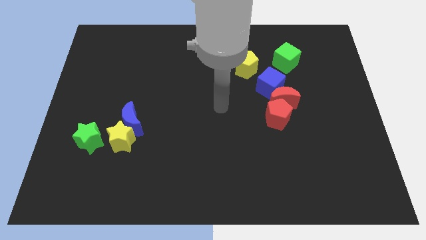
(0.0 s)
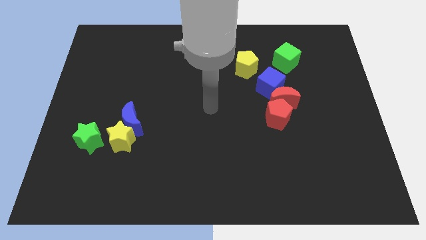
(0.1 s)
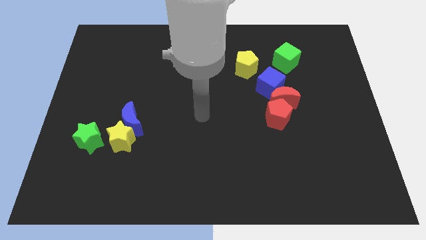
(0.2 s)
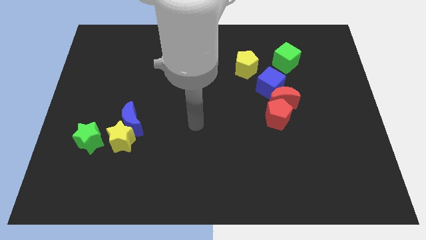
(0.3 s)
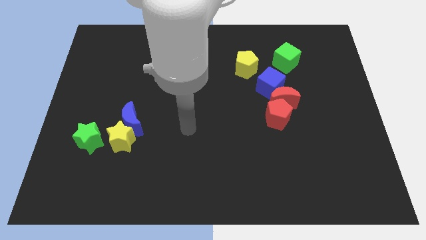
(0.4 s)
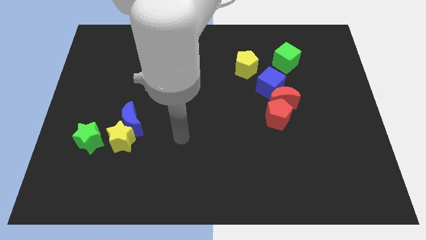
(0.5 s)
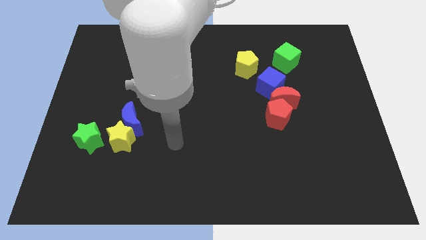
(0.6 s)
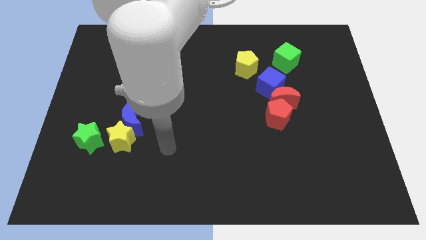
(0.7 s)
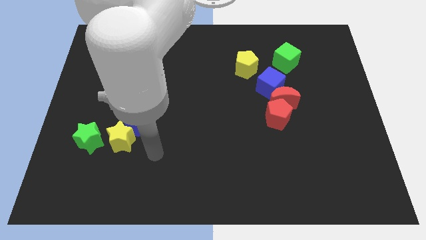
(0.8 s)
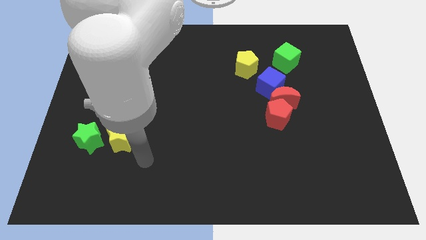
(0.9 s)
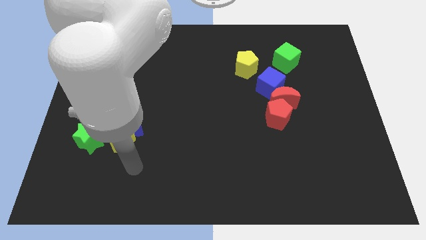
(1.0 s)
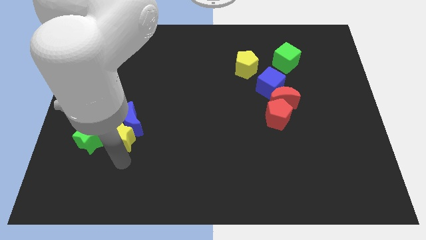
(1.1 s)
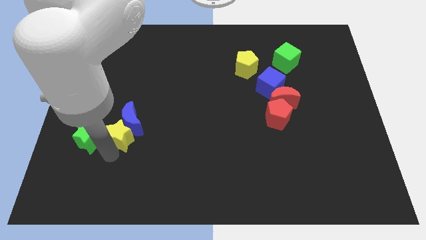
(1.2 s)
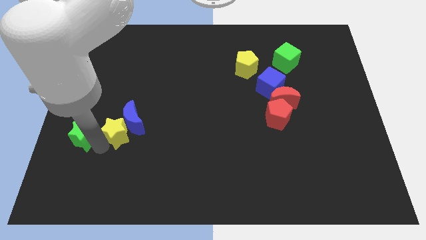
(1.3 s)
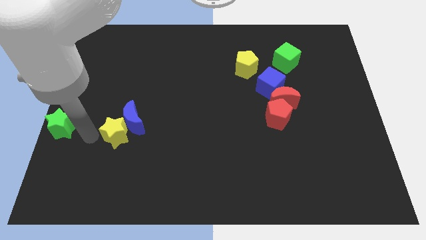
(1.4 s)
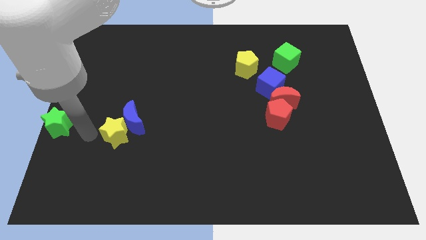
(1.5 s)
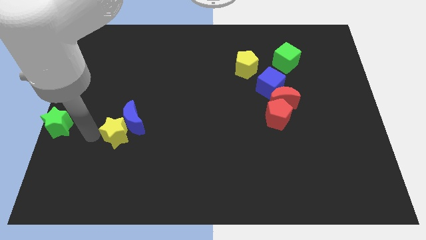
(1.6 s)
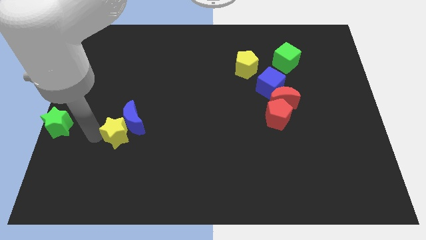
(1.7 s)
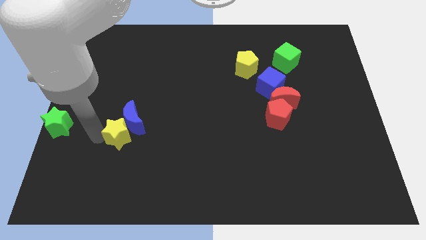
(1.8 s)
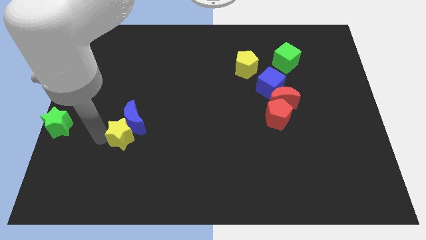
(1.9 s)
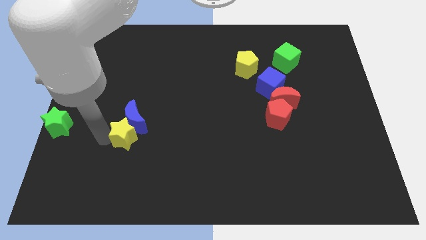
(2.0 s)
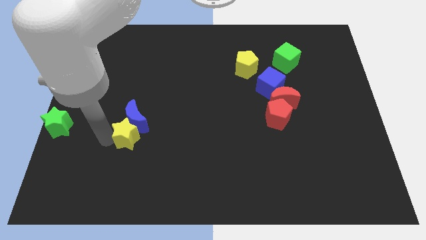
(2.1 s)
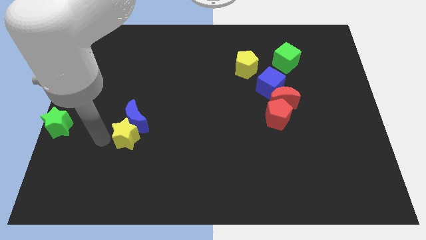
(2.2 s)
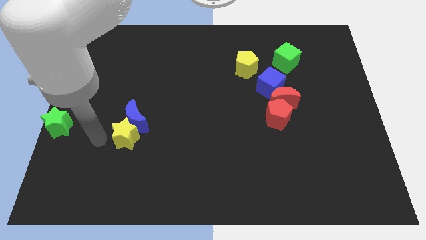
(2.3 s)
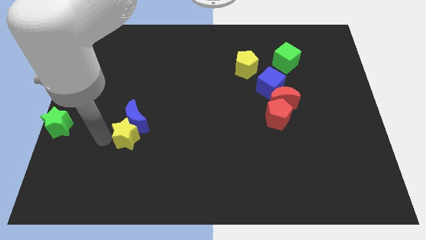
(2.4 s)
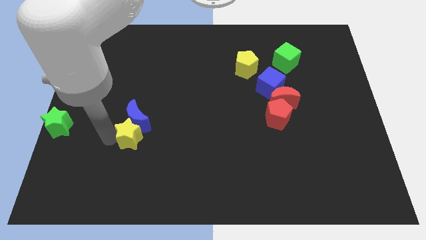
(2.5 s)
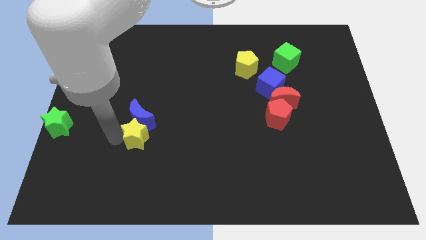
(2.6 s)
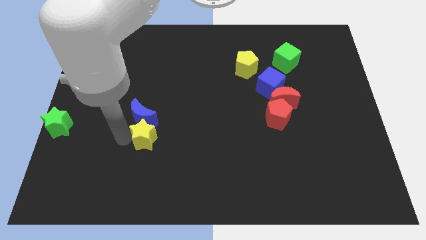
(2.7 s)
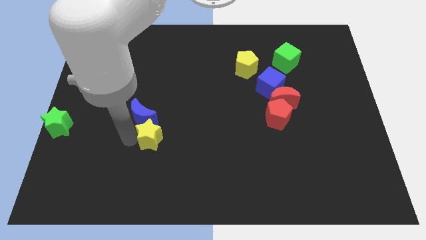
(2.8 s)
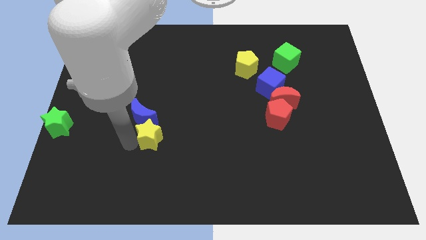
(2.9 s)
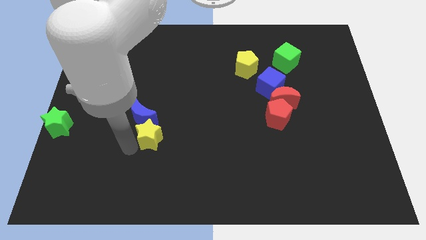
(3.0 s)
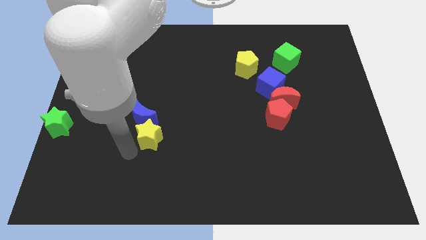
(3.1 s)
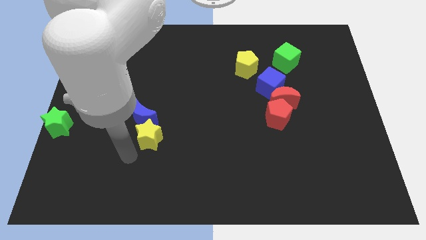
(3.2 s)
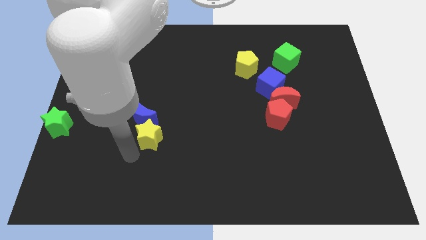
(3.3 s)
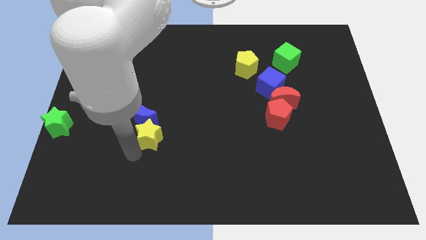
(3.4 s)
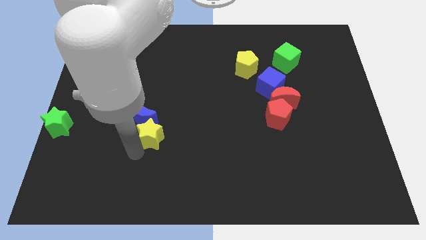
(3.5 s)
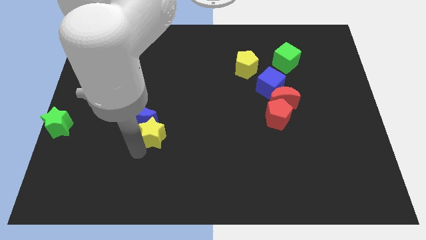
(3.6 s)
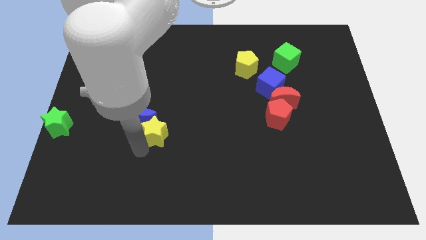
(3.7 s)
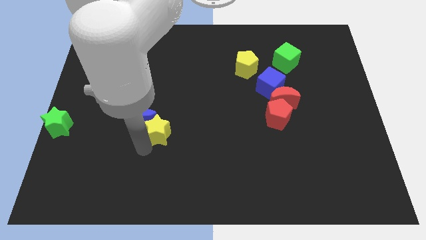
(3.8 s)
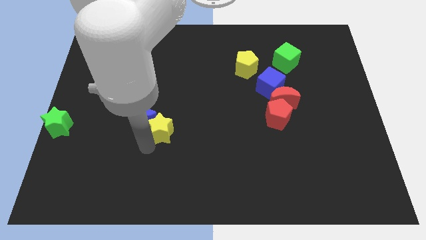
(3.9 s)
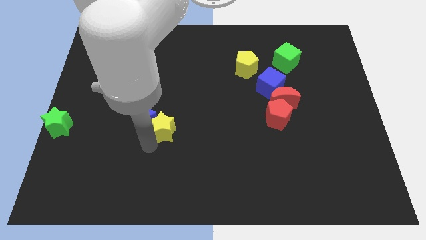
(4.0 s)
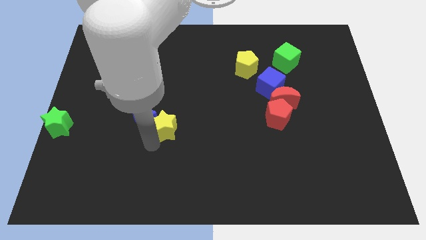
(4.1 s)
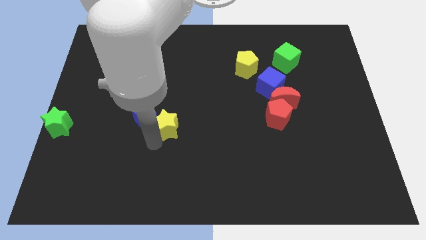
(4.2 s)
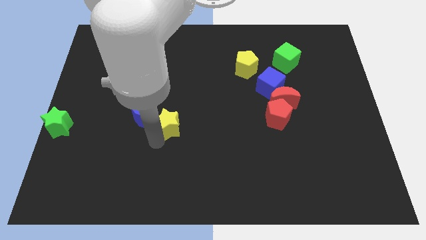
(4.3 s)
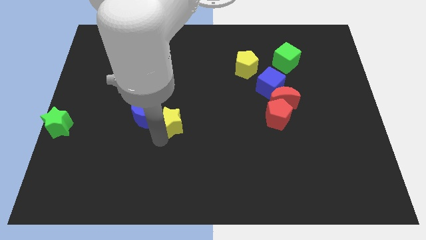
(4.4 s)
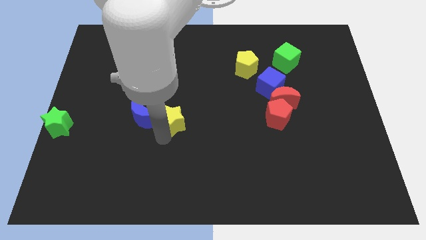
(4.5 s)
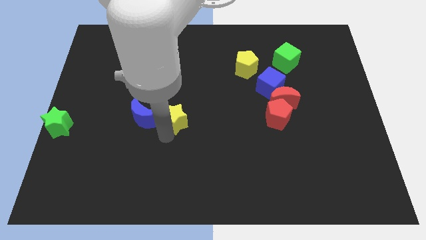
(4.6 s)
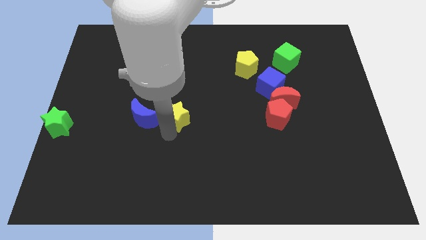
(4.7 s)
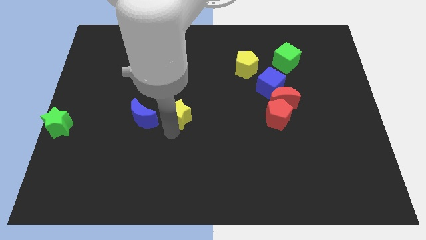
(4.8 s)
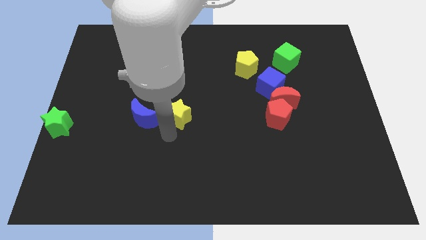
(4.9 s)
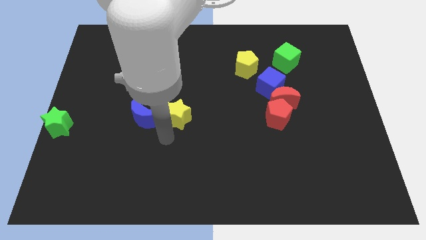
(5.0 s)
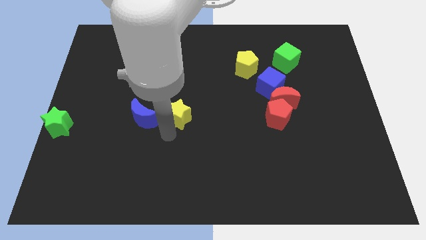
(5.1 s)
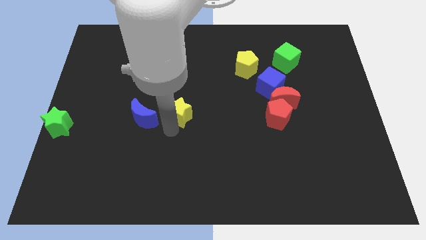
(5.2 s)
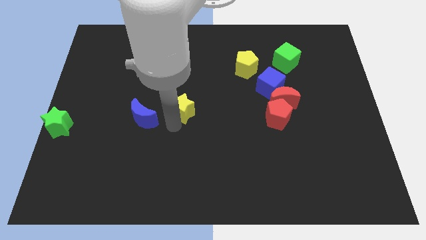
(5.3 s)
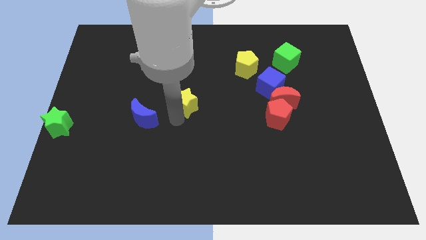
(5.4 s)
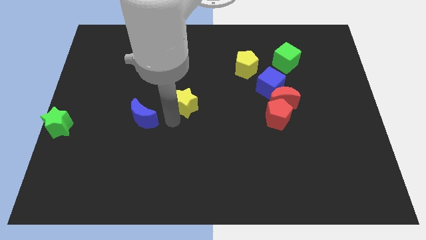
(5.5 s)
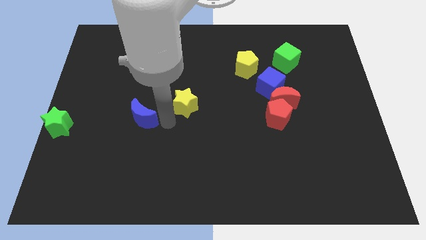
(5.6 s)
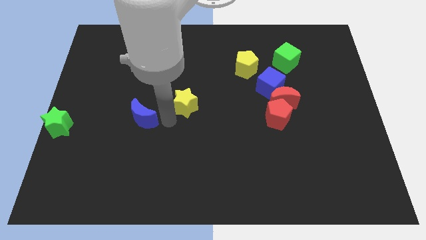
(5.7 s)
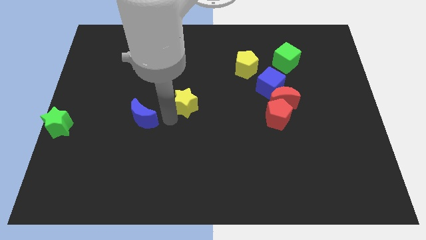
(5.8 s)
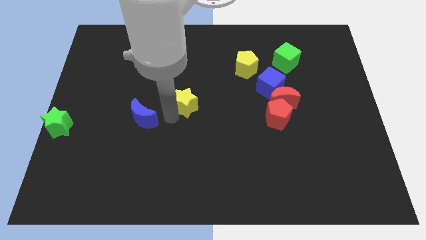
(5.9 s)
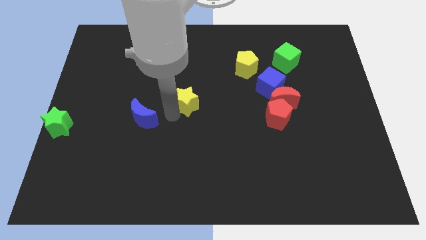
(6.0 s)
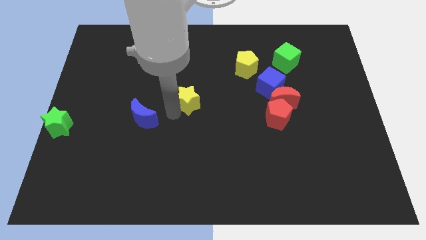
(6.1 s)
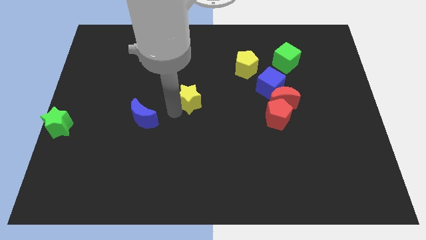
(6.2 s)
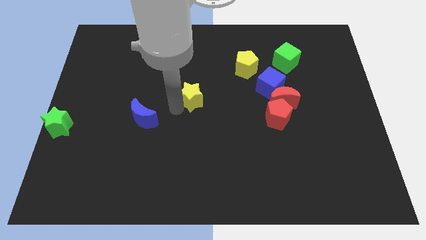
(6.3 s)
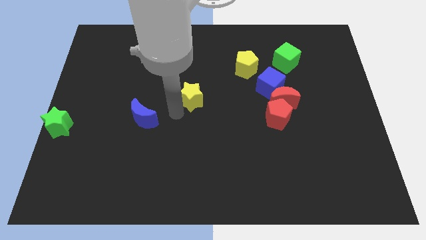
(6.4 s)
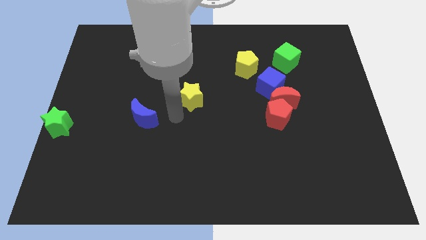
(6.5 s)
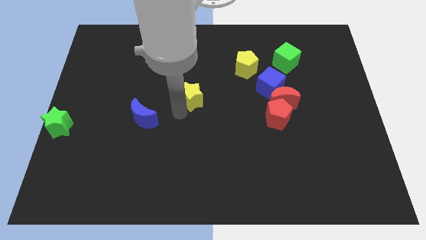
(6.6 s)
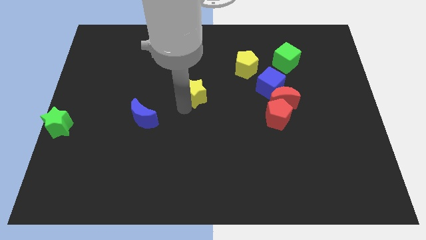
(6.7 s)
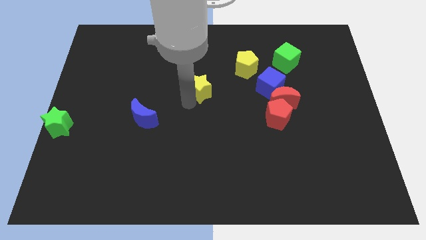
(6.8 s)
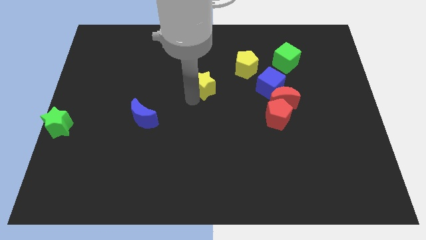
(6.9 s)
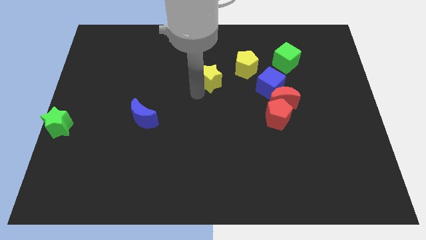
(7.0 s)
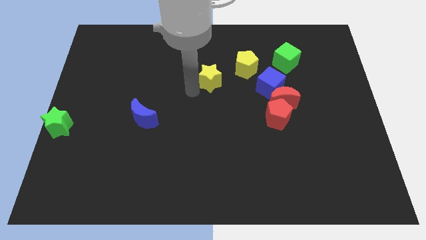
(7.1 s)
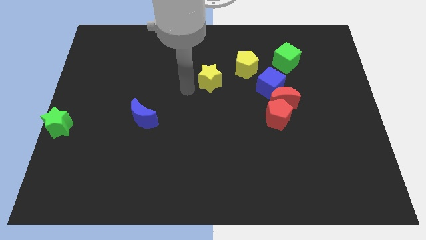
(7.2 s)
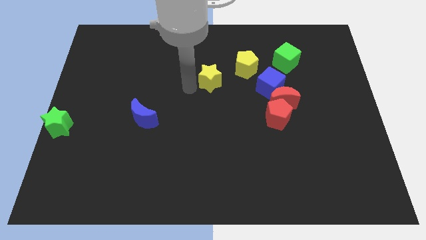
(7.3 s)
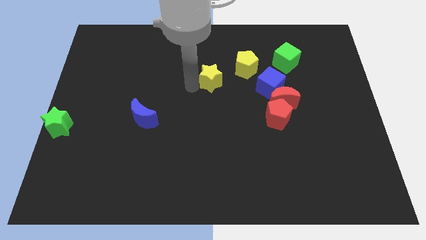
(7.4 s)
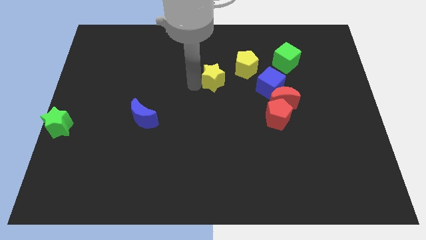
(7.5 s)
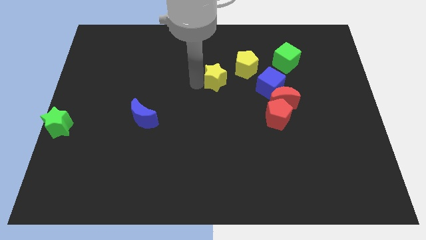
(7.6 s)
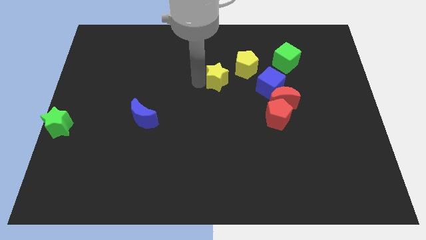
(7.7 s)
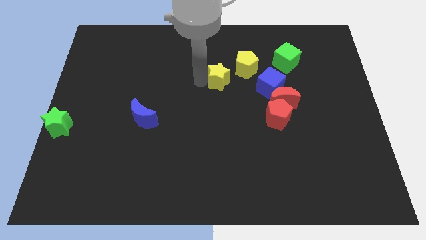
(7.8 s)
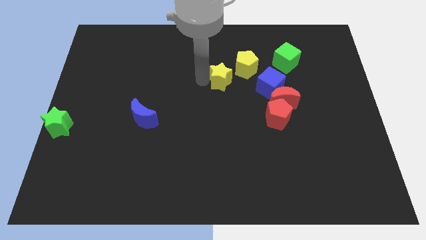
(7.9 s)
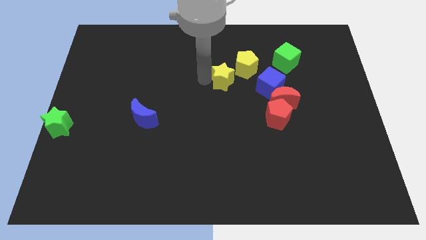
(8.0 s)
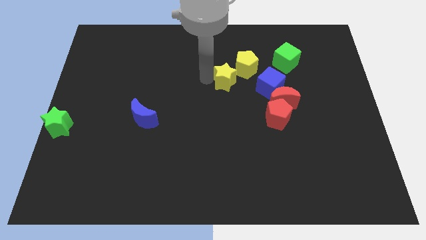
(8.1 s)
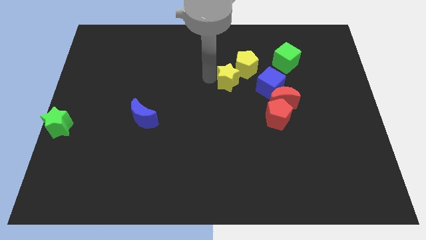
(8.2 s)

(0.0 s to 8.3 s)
push the yellow star close to the yellow pentagon
